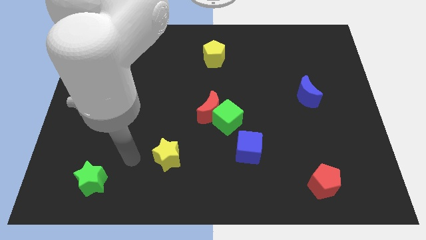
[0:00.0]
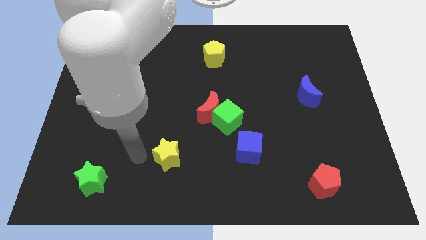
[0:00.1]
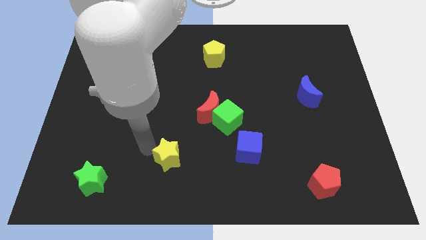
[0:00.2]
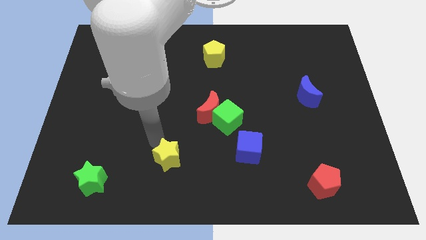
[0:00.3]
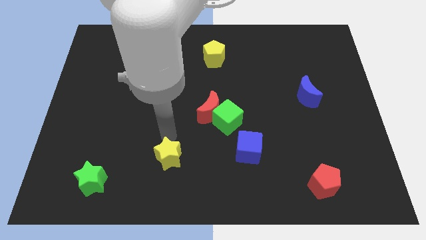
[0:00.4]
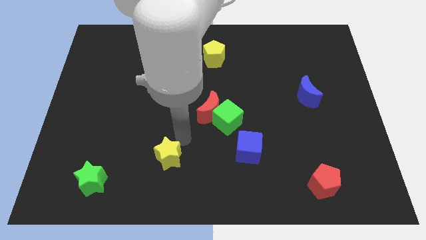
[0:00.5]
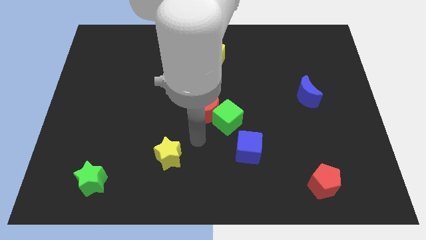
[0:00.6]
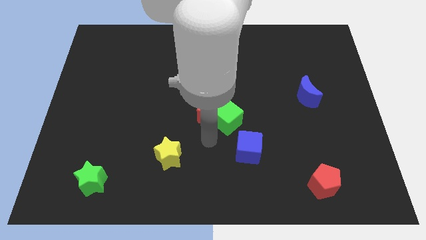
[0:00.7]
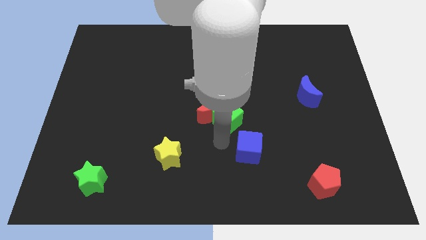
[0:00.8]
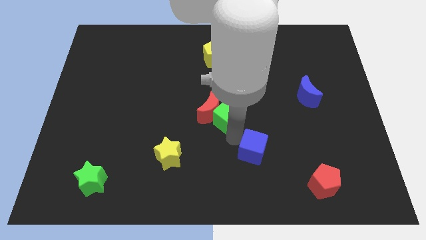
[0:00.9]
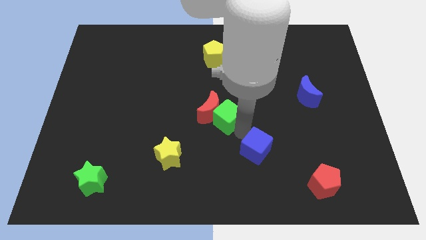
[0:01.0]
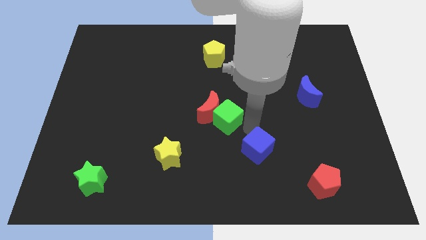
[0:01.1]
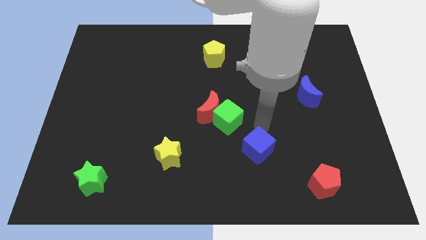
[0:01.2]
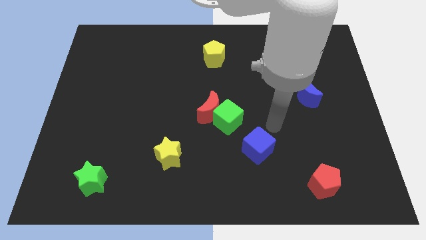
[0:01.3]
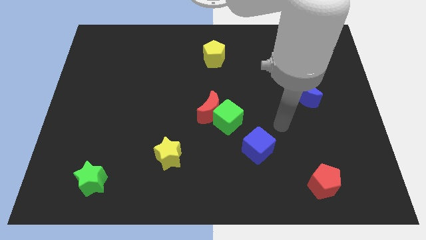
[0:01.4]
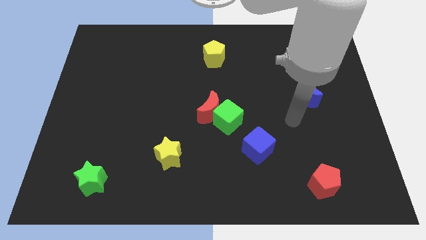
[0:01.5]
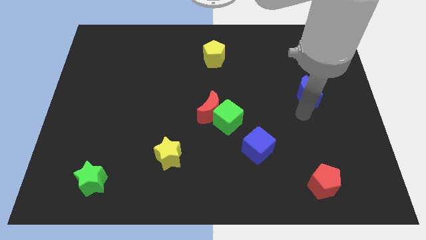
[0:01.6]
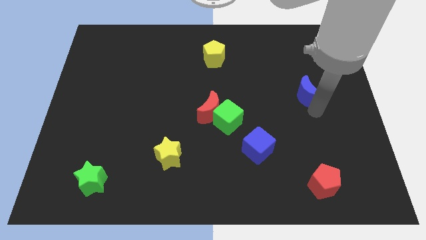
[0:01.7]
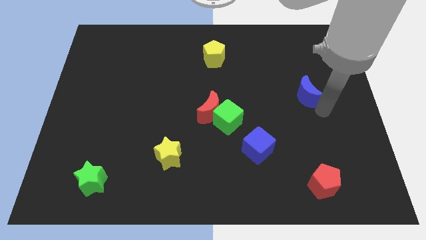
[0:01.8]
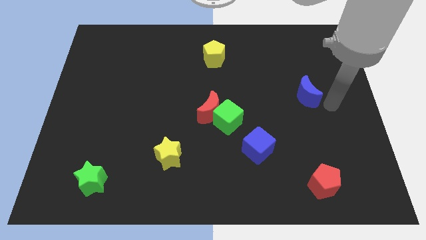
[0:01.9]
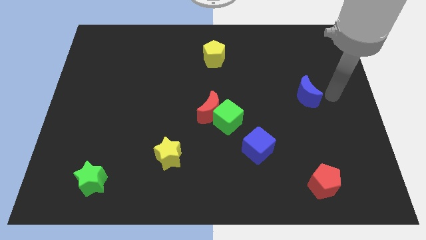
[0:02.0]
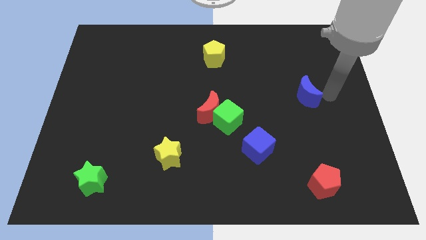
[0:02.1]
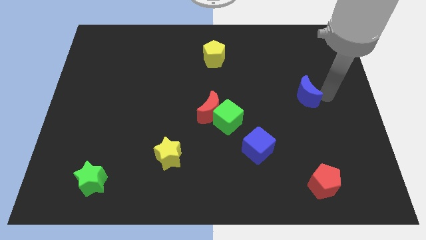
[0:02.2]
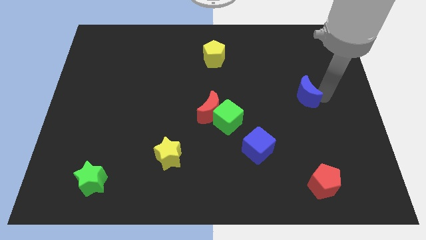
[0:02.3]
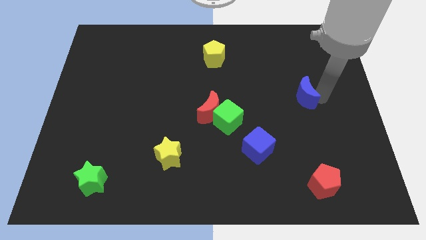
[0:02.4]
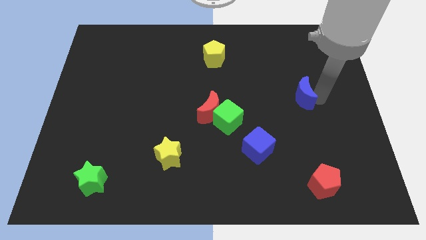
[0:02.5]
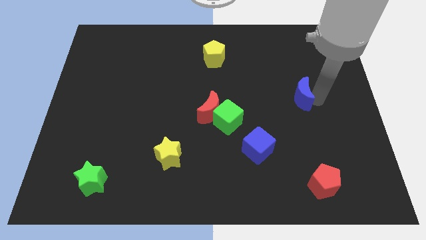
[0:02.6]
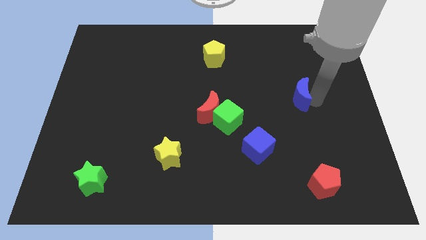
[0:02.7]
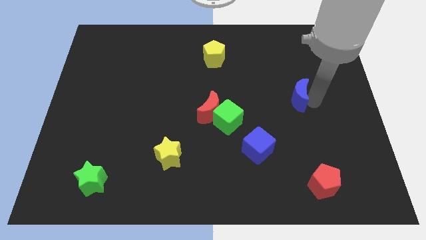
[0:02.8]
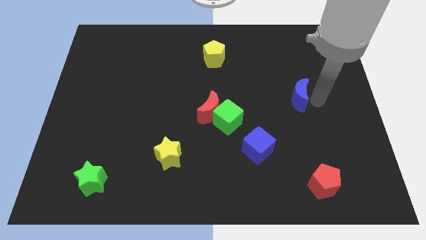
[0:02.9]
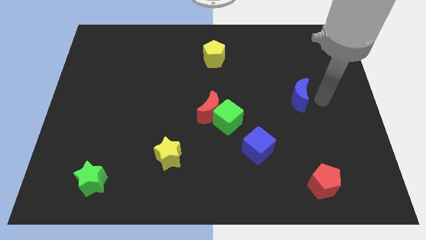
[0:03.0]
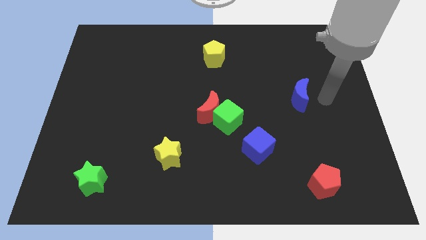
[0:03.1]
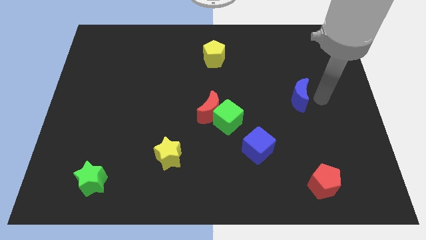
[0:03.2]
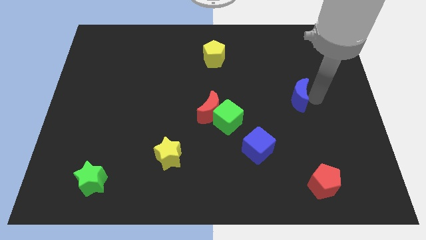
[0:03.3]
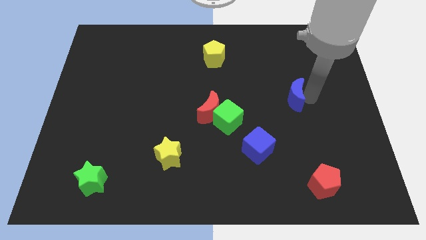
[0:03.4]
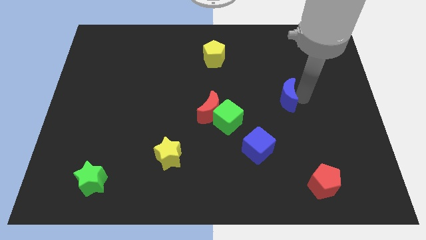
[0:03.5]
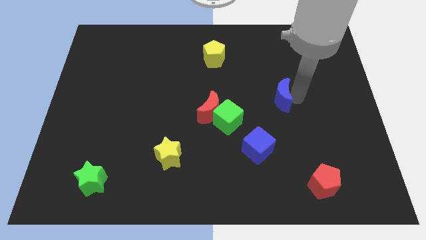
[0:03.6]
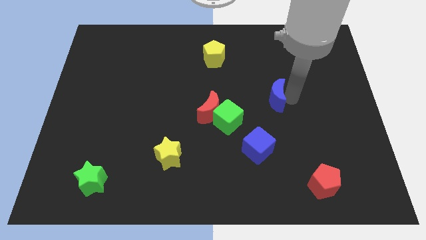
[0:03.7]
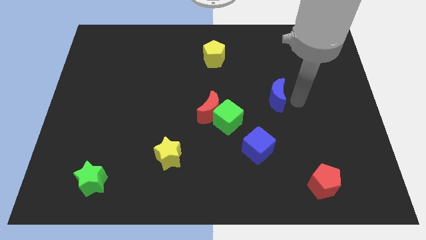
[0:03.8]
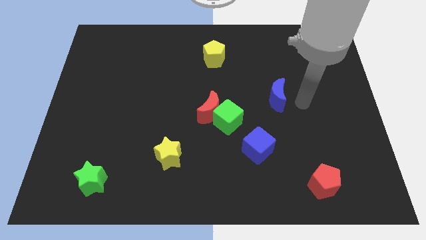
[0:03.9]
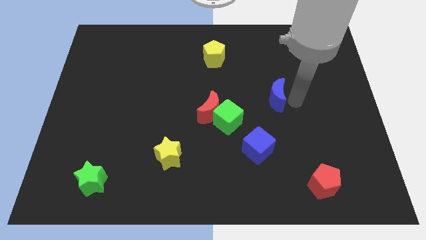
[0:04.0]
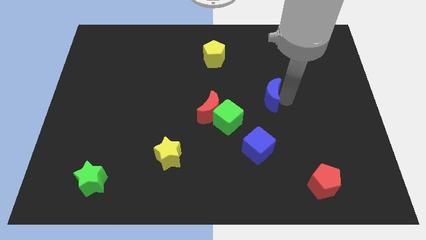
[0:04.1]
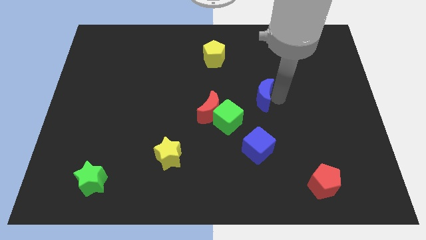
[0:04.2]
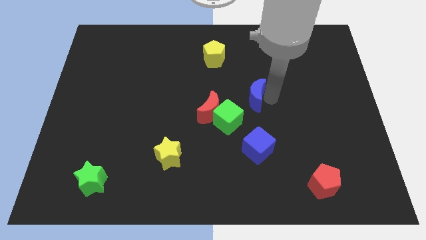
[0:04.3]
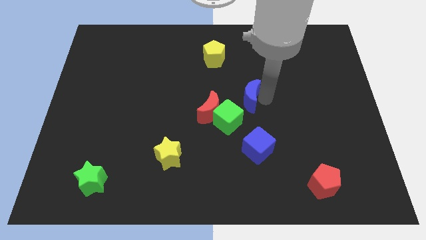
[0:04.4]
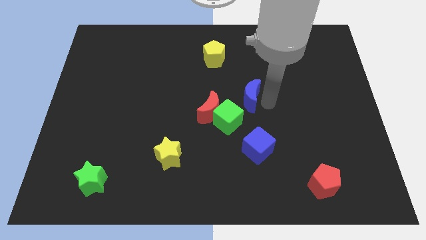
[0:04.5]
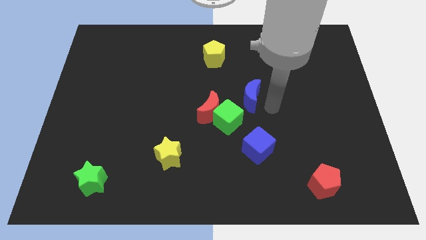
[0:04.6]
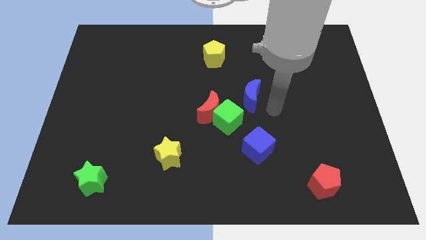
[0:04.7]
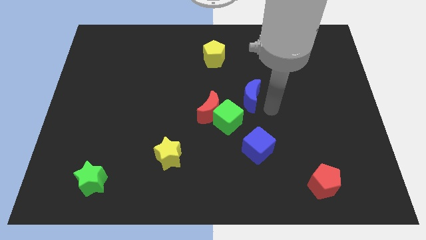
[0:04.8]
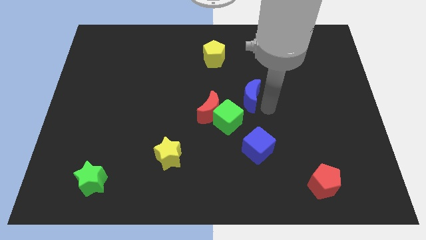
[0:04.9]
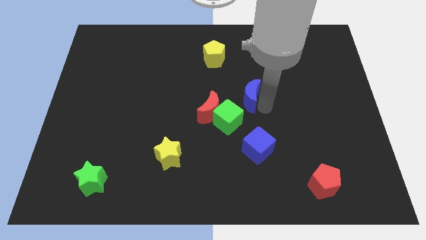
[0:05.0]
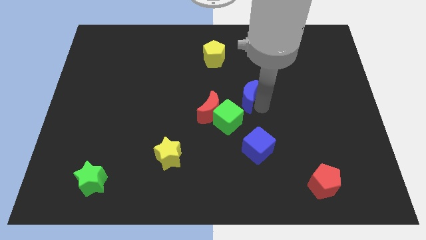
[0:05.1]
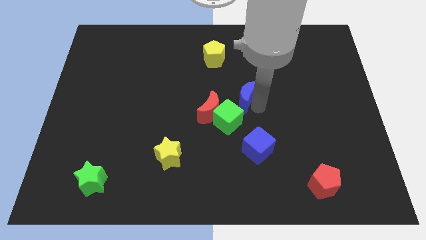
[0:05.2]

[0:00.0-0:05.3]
slide the blue moon to the top side of the green cube

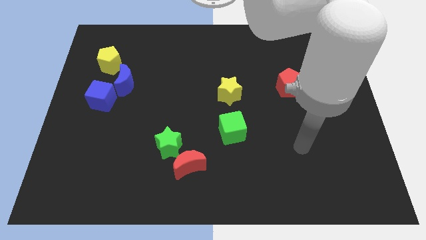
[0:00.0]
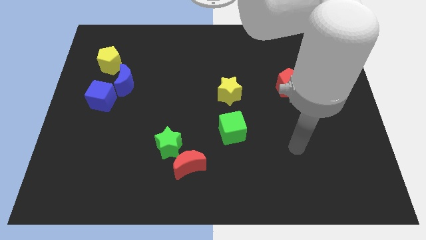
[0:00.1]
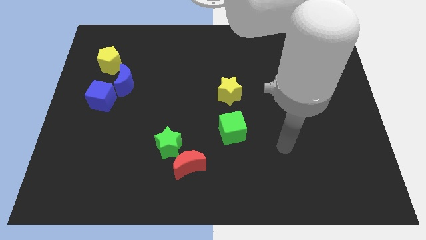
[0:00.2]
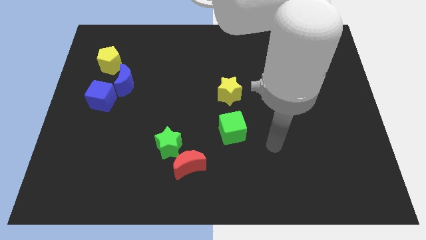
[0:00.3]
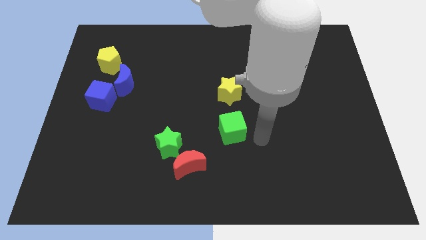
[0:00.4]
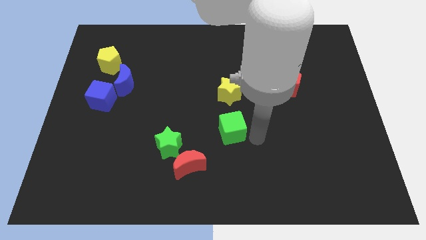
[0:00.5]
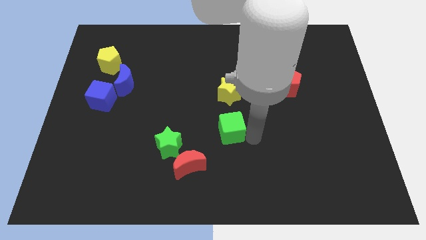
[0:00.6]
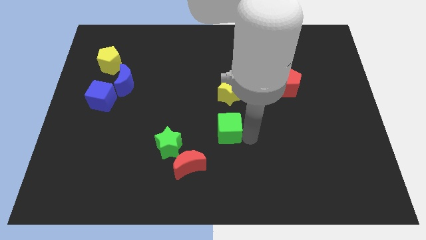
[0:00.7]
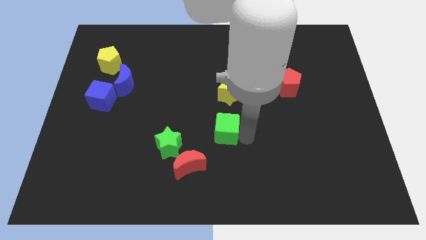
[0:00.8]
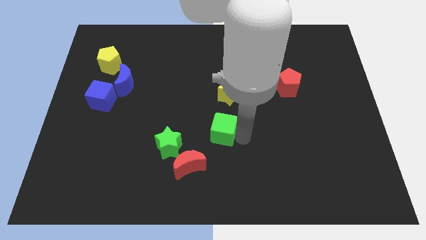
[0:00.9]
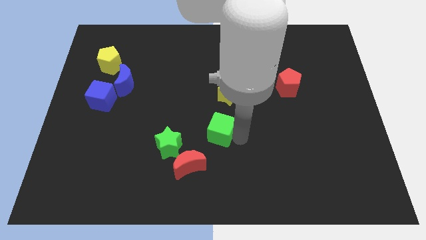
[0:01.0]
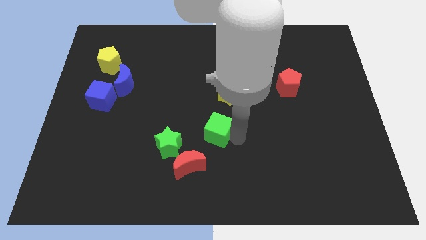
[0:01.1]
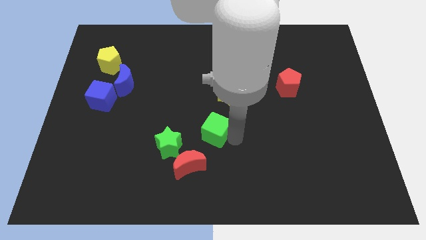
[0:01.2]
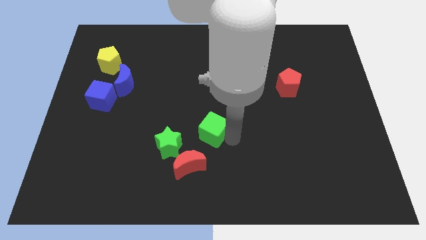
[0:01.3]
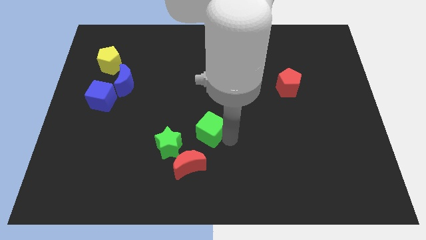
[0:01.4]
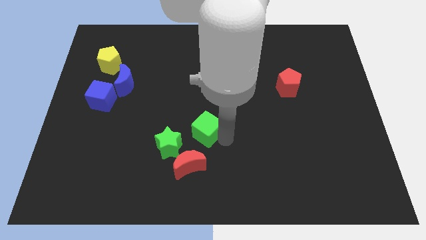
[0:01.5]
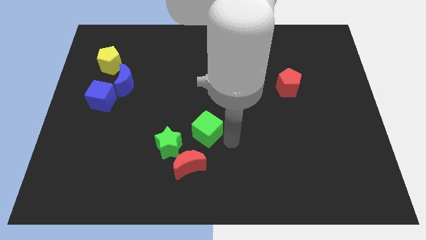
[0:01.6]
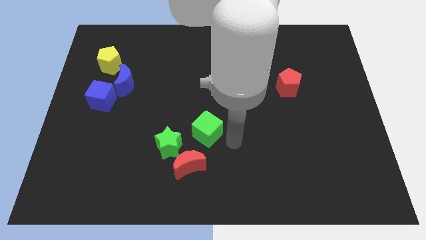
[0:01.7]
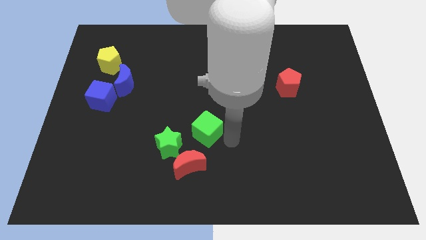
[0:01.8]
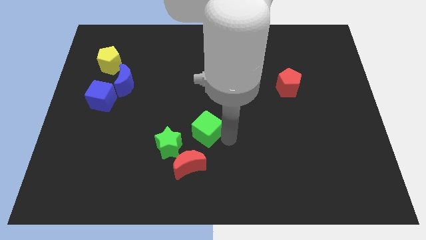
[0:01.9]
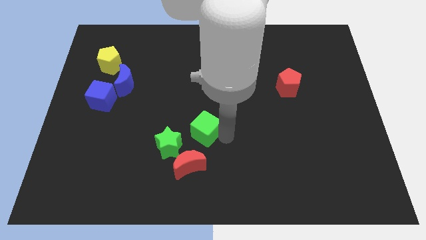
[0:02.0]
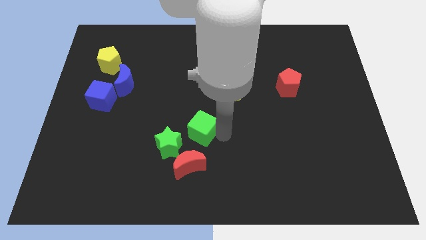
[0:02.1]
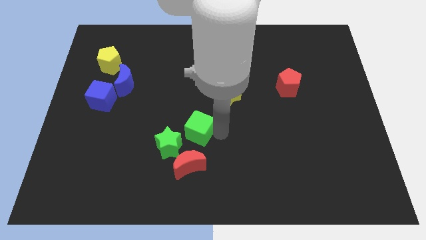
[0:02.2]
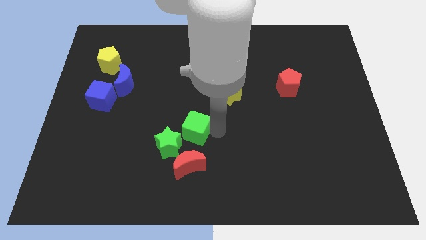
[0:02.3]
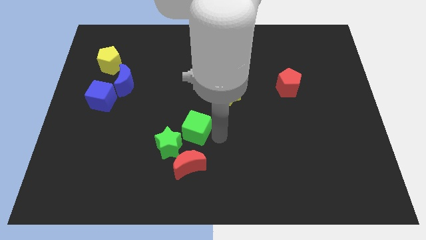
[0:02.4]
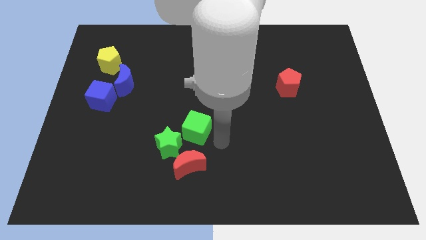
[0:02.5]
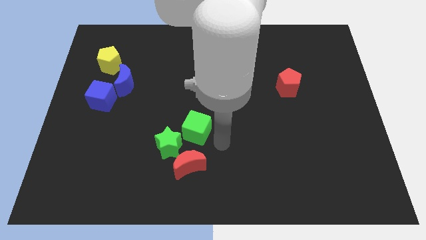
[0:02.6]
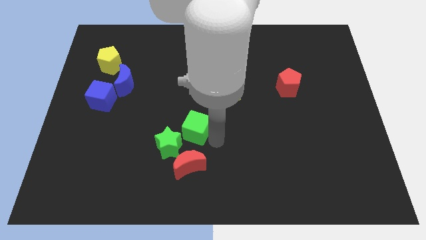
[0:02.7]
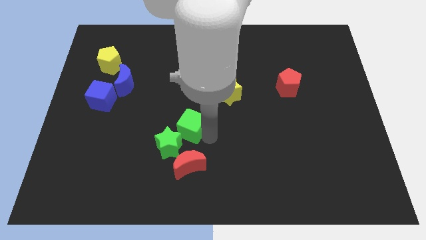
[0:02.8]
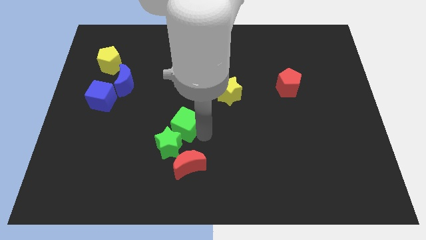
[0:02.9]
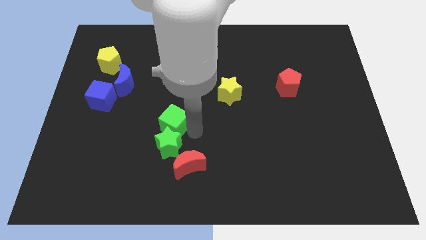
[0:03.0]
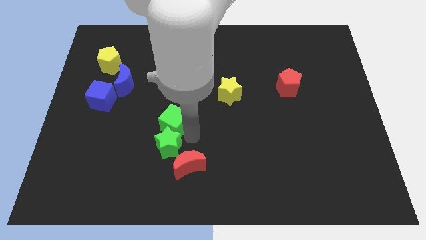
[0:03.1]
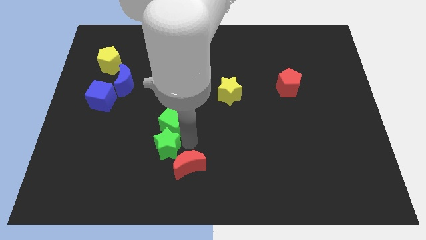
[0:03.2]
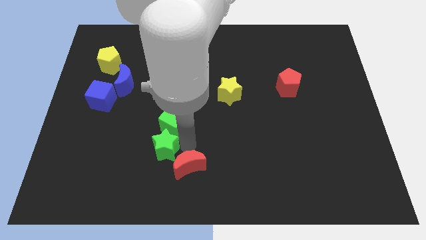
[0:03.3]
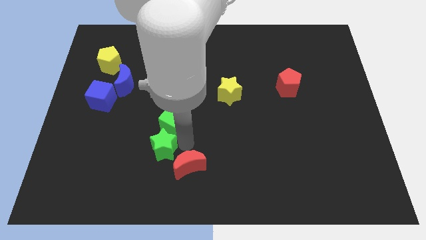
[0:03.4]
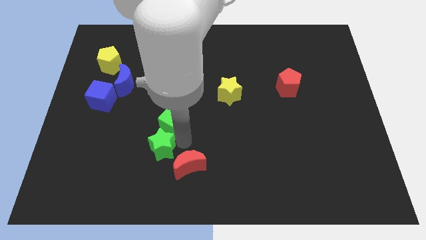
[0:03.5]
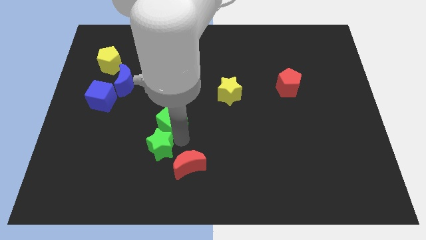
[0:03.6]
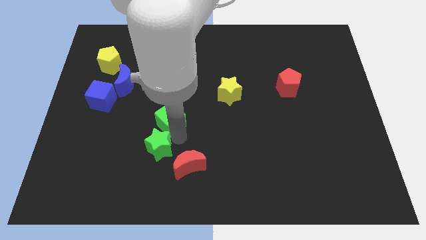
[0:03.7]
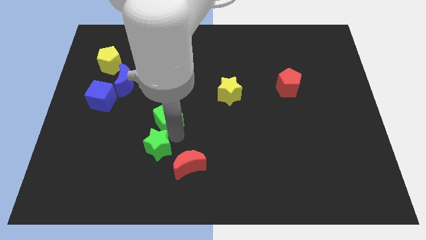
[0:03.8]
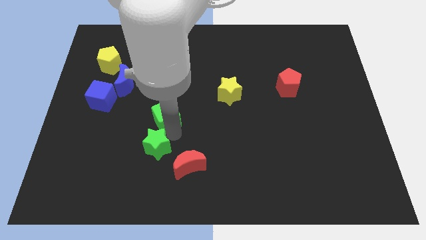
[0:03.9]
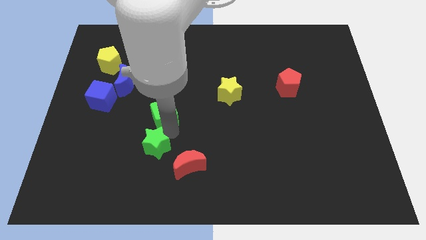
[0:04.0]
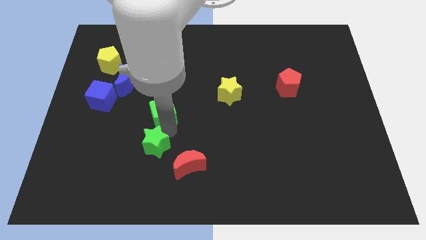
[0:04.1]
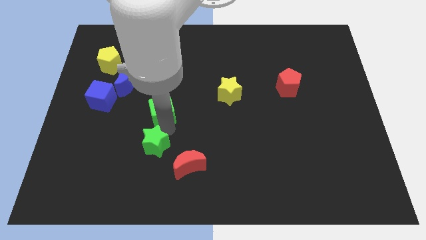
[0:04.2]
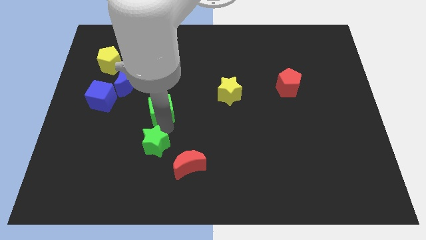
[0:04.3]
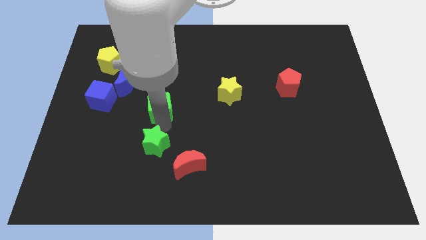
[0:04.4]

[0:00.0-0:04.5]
push the green cube right of the blue cube
